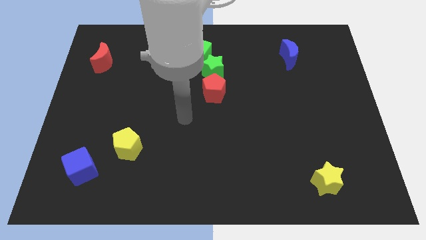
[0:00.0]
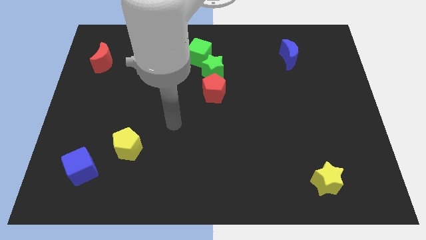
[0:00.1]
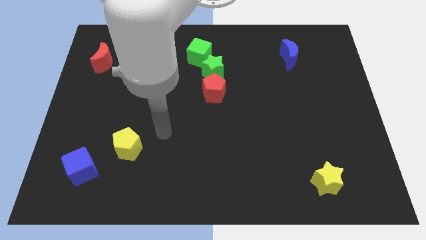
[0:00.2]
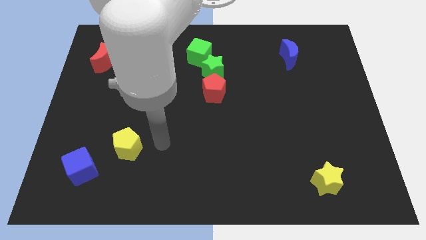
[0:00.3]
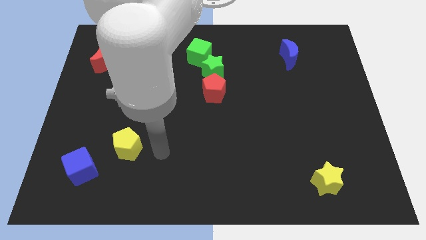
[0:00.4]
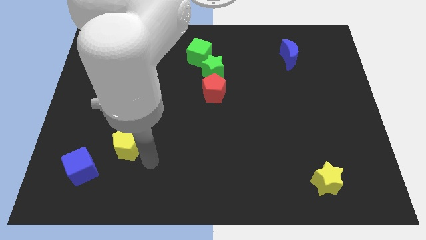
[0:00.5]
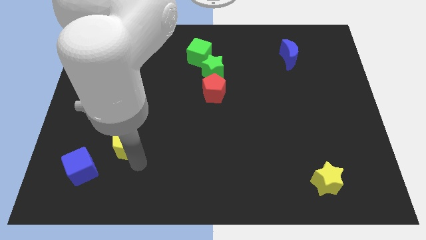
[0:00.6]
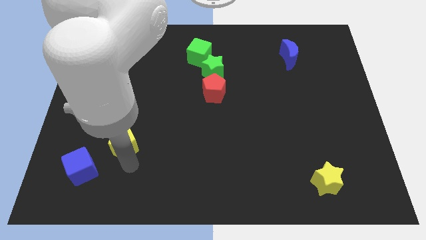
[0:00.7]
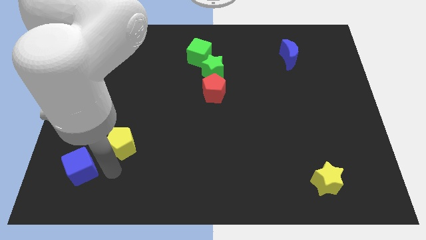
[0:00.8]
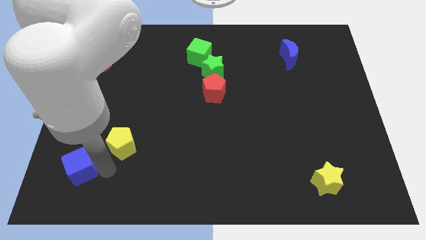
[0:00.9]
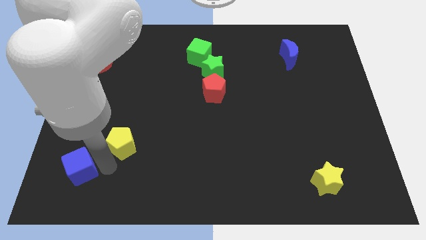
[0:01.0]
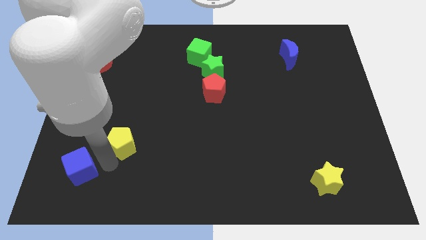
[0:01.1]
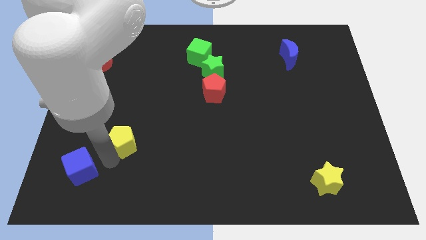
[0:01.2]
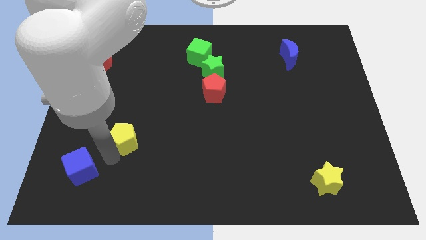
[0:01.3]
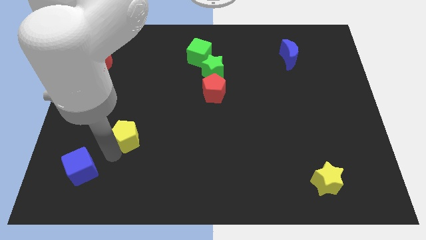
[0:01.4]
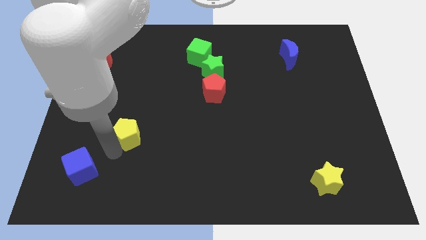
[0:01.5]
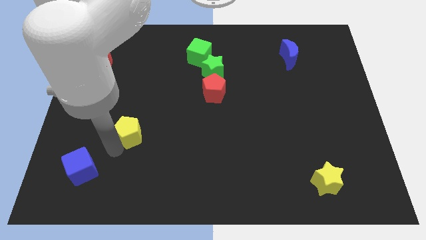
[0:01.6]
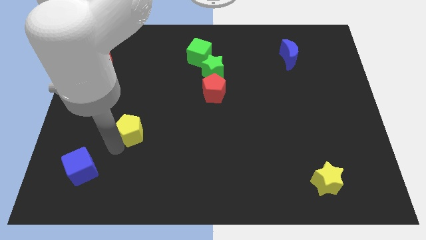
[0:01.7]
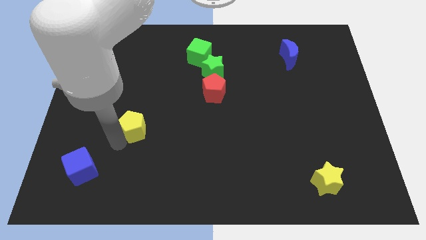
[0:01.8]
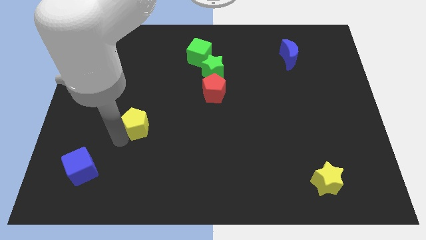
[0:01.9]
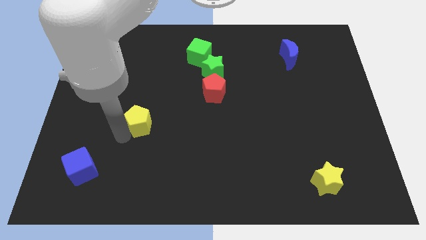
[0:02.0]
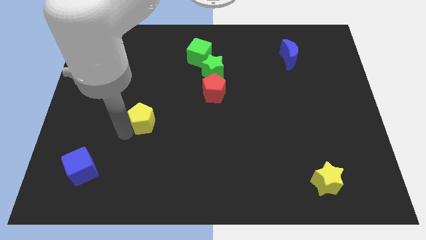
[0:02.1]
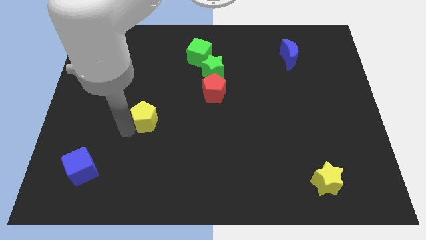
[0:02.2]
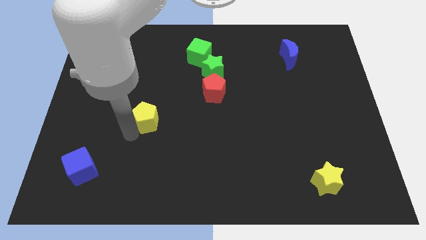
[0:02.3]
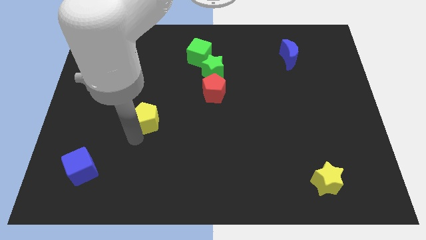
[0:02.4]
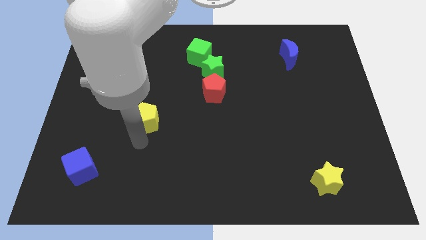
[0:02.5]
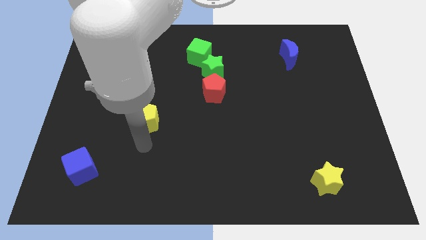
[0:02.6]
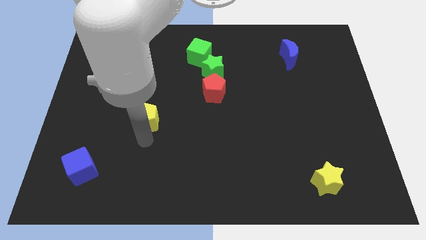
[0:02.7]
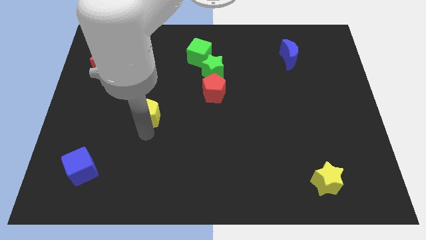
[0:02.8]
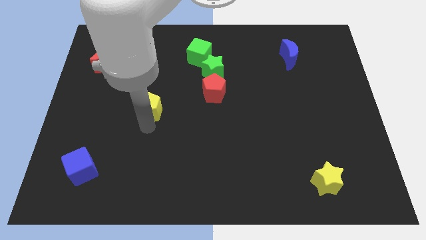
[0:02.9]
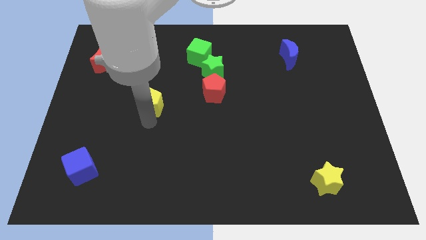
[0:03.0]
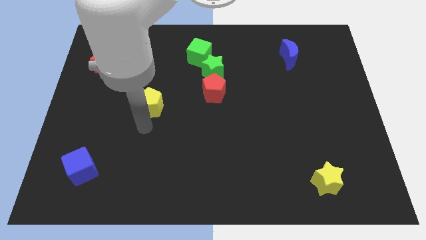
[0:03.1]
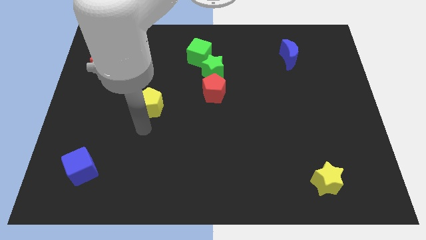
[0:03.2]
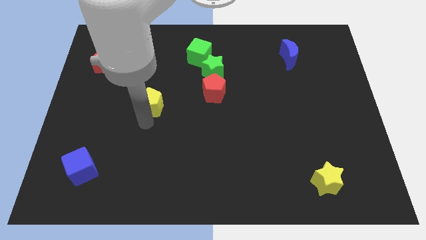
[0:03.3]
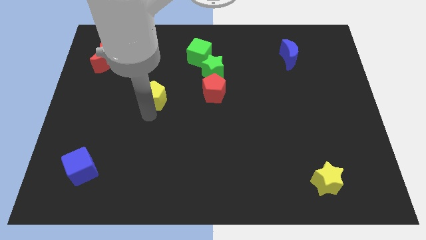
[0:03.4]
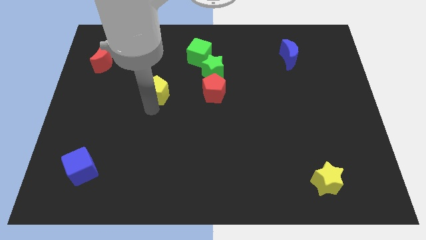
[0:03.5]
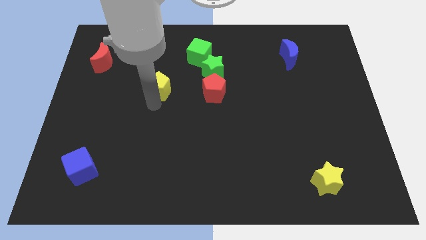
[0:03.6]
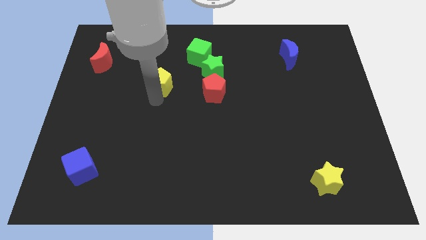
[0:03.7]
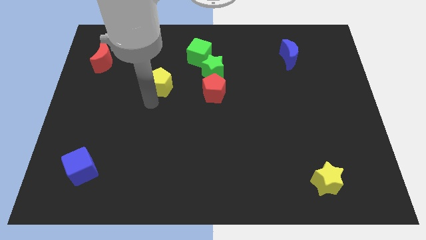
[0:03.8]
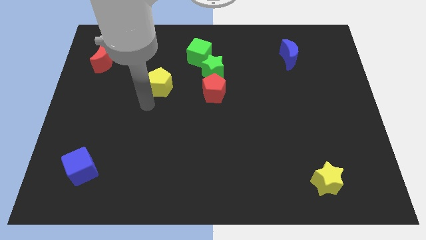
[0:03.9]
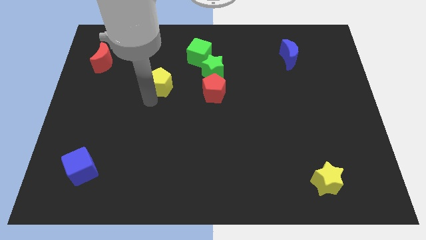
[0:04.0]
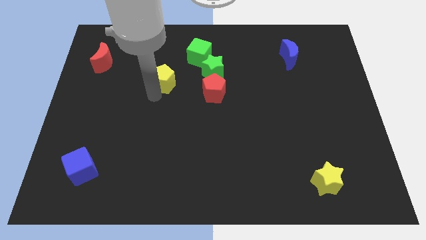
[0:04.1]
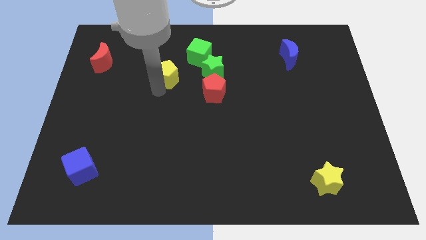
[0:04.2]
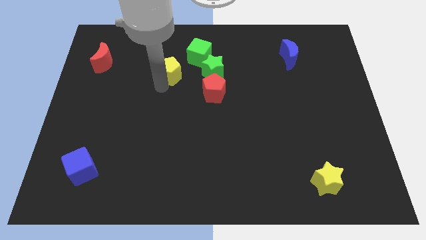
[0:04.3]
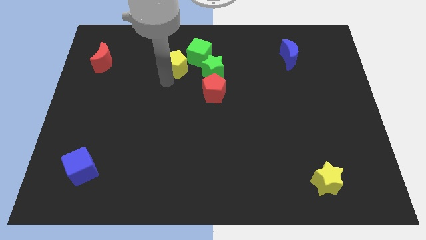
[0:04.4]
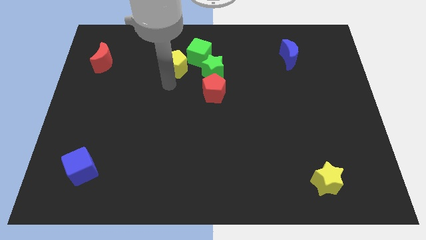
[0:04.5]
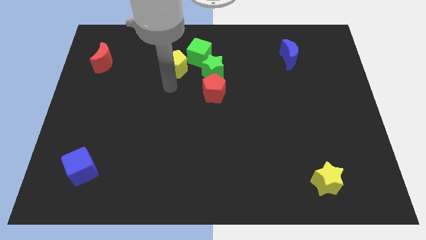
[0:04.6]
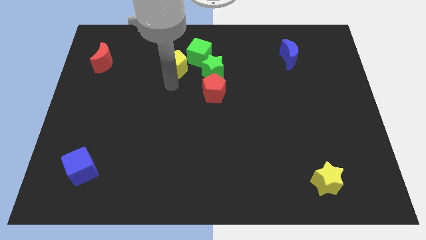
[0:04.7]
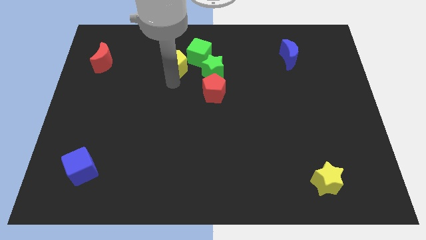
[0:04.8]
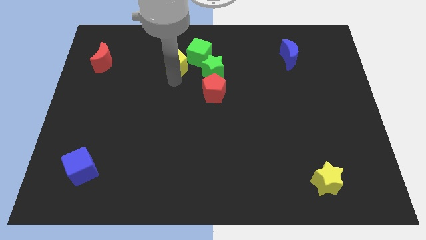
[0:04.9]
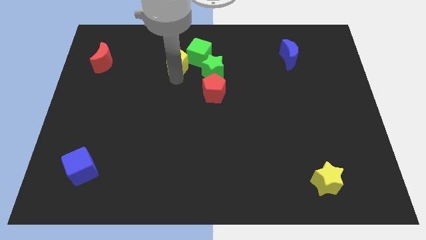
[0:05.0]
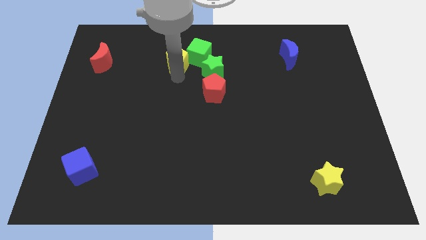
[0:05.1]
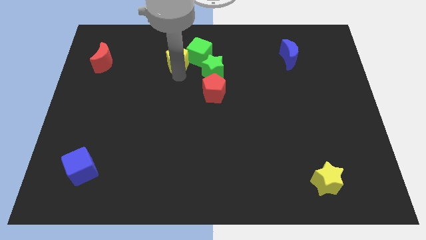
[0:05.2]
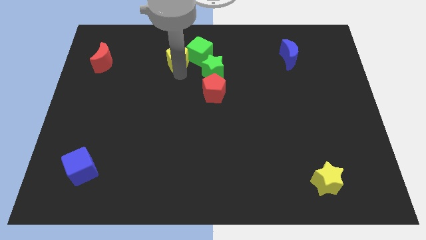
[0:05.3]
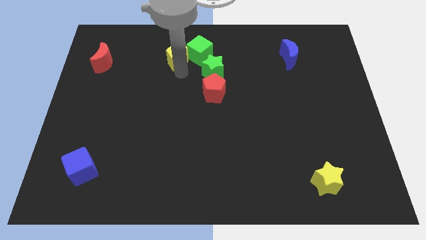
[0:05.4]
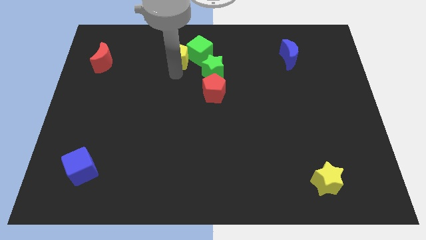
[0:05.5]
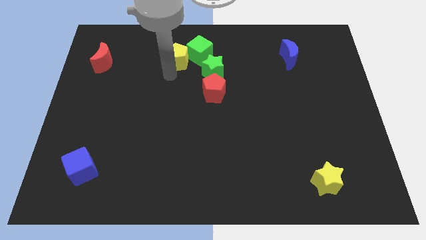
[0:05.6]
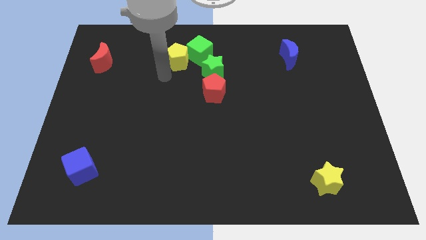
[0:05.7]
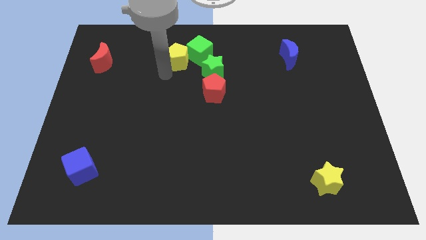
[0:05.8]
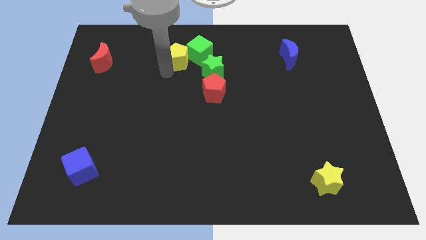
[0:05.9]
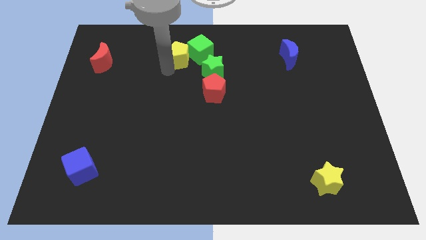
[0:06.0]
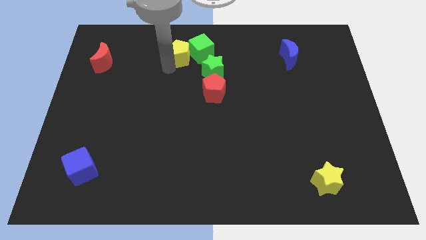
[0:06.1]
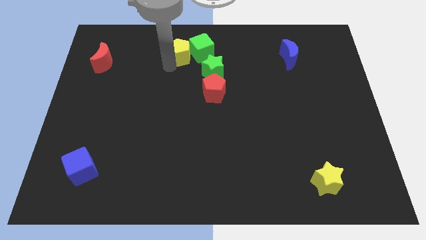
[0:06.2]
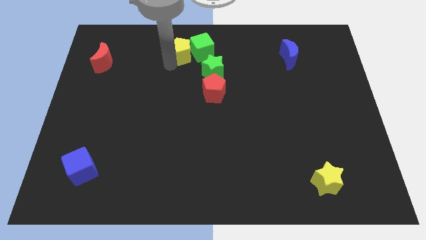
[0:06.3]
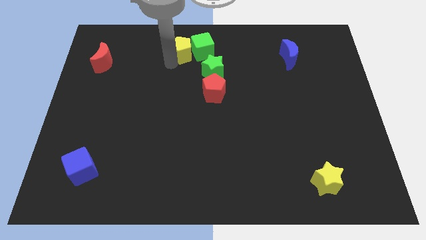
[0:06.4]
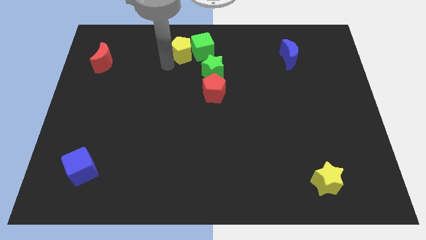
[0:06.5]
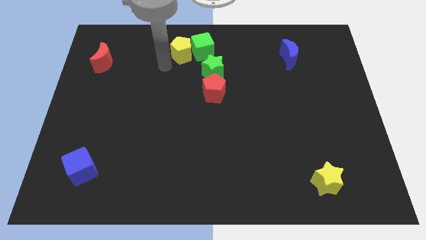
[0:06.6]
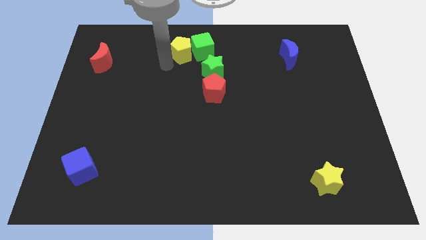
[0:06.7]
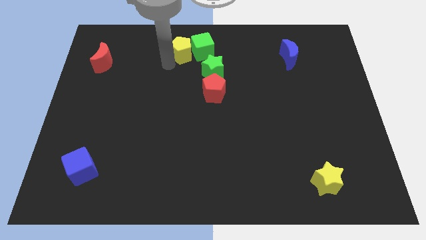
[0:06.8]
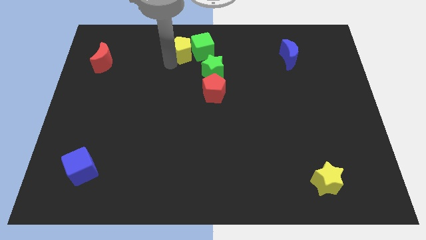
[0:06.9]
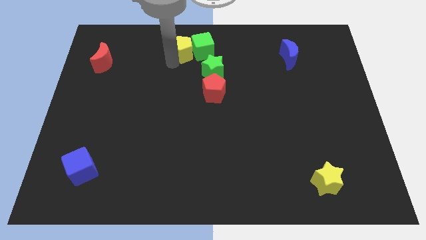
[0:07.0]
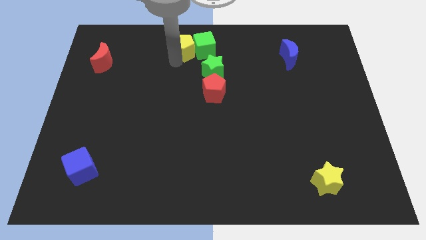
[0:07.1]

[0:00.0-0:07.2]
move the yellow pentagon to the towards your base

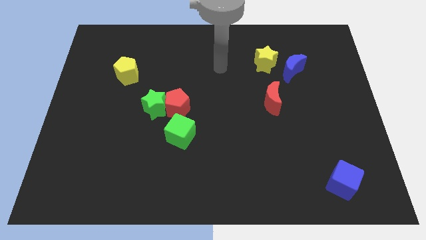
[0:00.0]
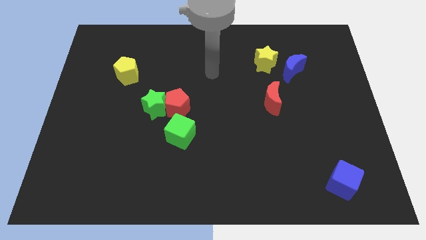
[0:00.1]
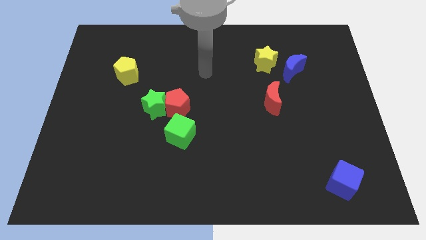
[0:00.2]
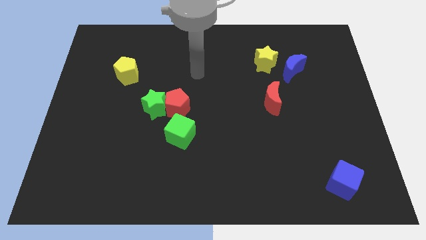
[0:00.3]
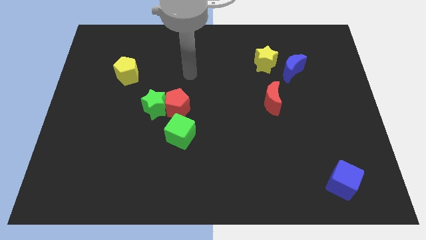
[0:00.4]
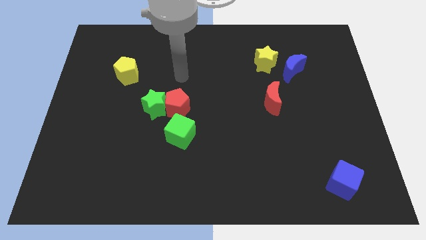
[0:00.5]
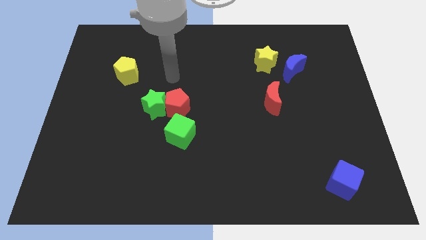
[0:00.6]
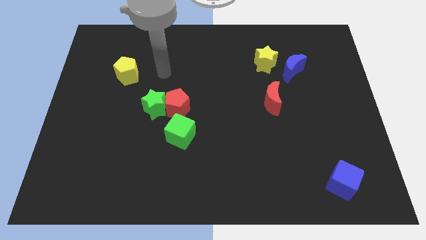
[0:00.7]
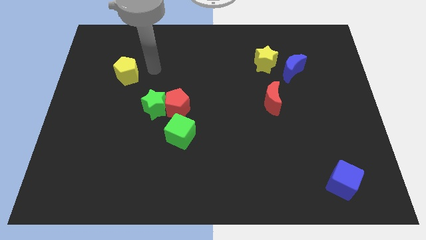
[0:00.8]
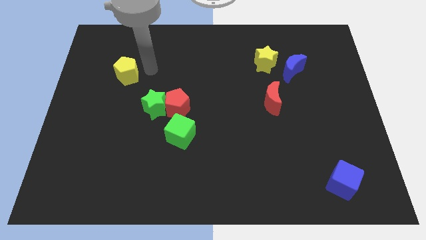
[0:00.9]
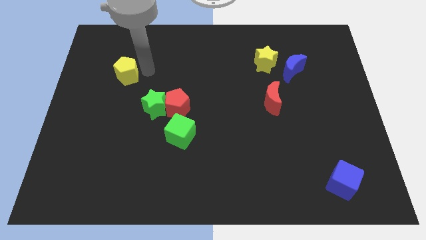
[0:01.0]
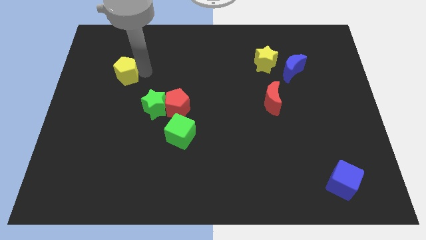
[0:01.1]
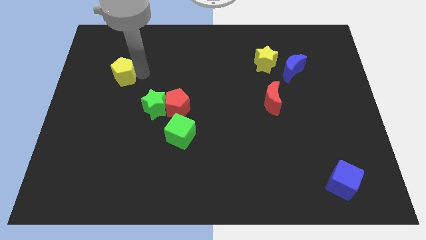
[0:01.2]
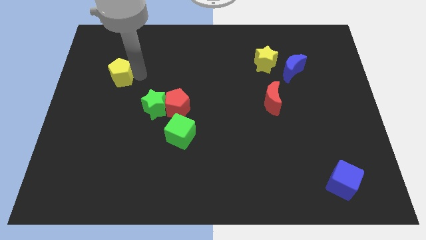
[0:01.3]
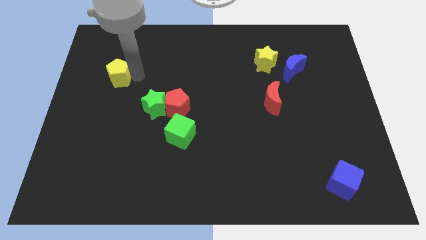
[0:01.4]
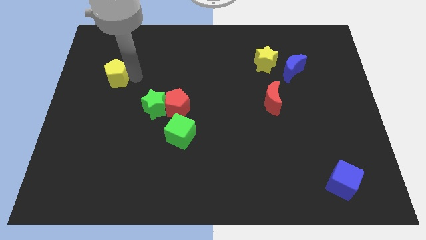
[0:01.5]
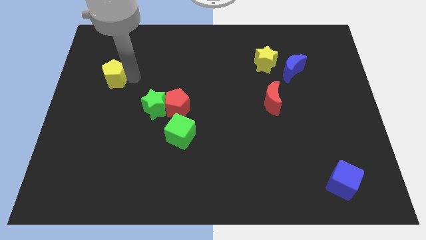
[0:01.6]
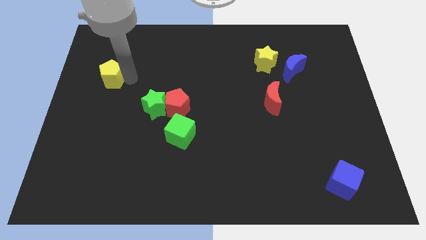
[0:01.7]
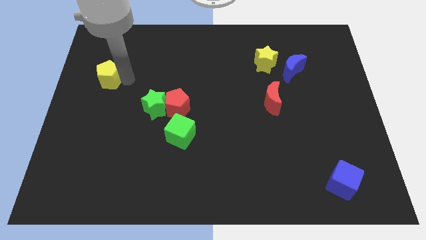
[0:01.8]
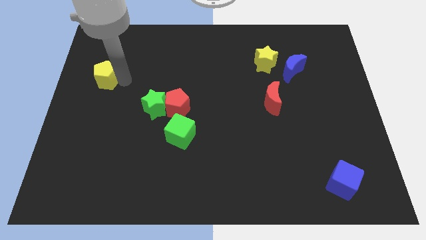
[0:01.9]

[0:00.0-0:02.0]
move the yellow pentagon to the center left
